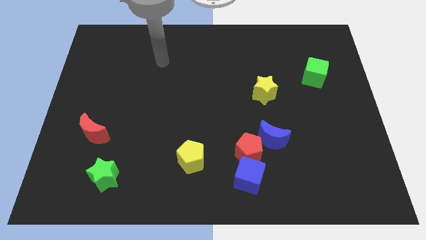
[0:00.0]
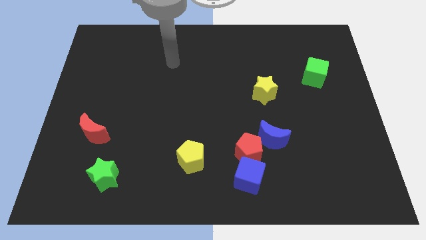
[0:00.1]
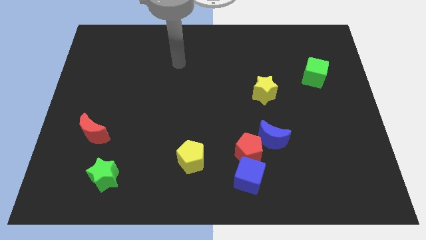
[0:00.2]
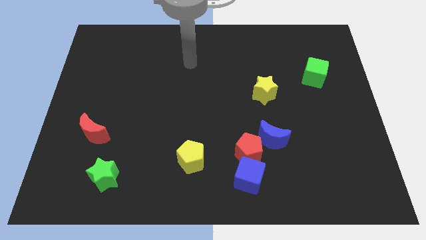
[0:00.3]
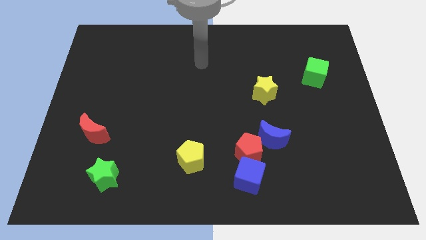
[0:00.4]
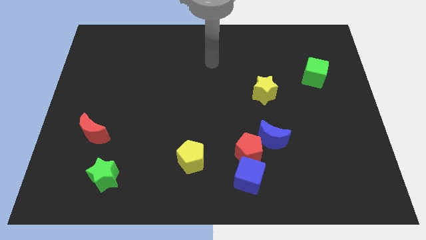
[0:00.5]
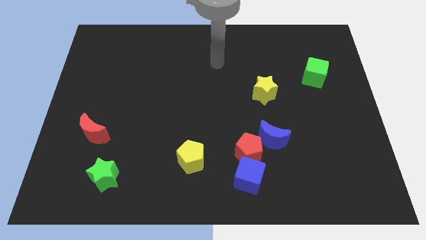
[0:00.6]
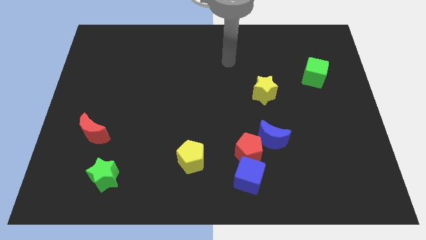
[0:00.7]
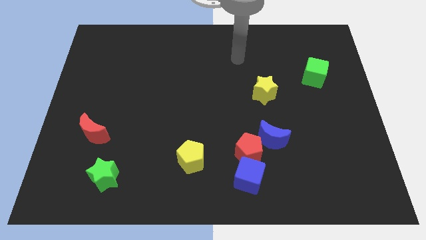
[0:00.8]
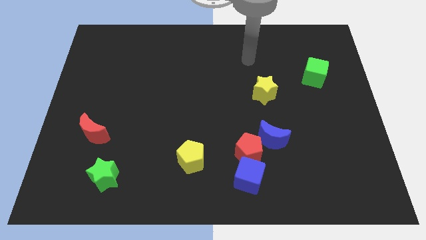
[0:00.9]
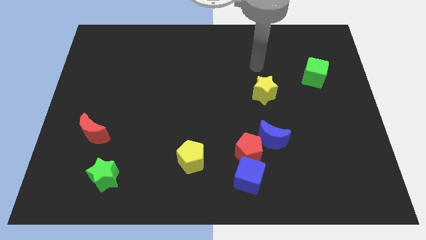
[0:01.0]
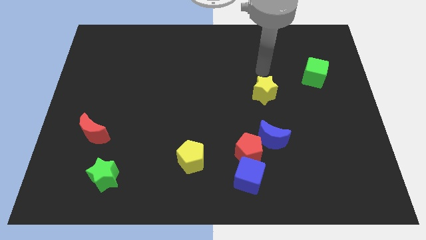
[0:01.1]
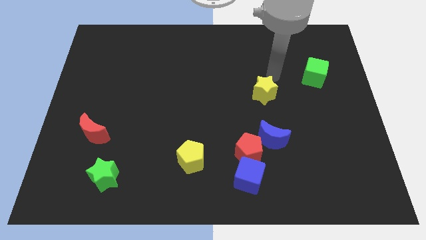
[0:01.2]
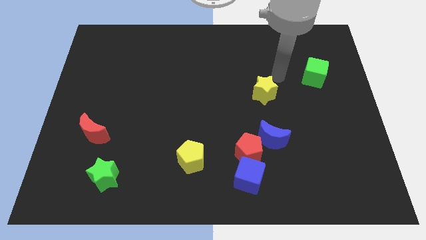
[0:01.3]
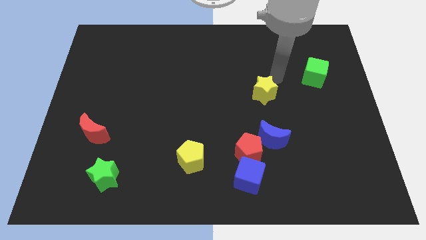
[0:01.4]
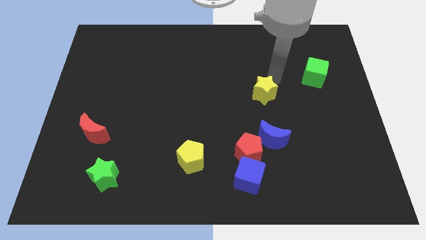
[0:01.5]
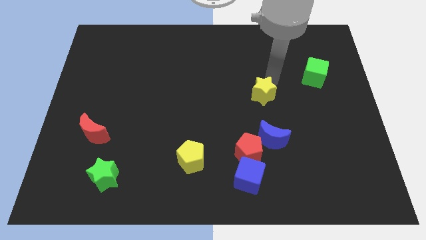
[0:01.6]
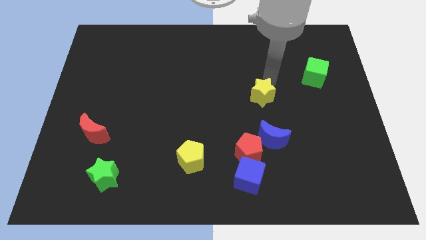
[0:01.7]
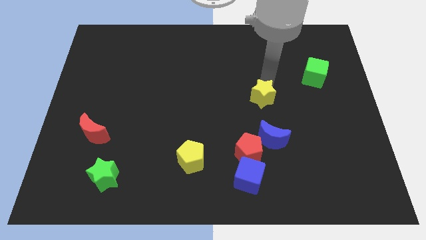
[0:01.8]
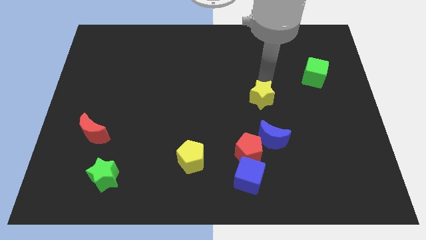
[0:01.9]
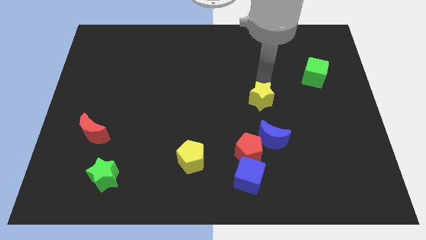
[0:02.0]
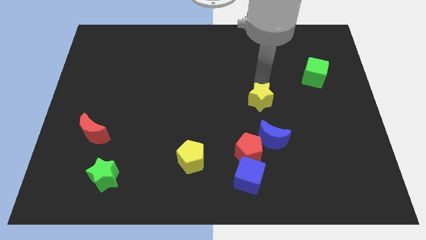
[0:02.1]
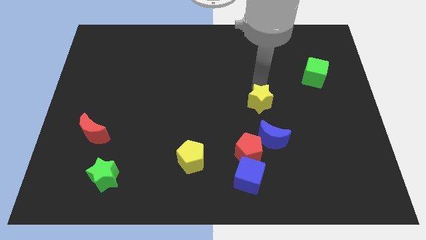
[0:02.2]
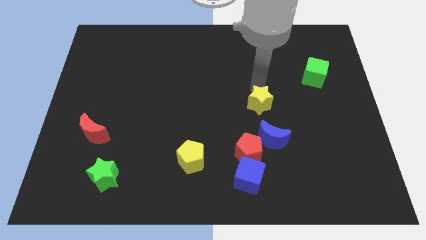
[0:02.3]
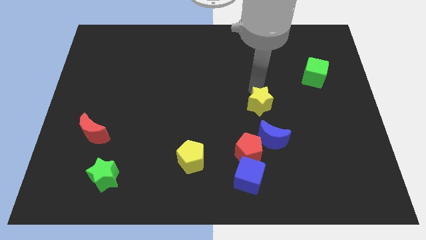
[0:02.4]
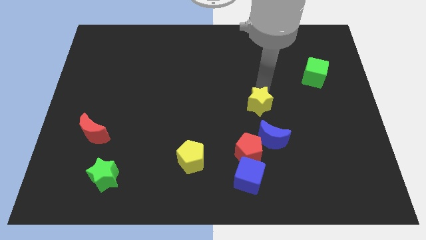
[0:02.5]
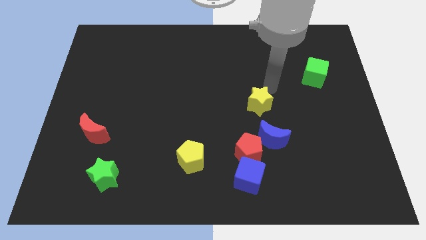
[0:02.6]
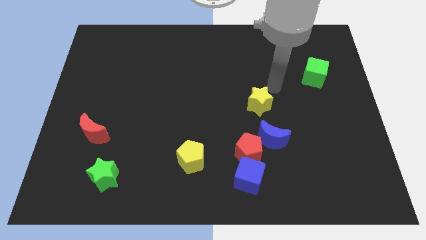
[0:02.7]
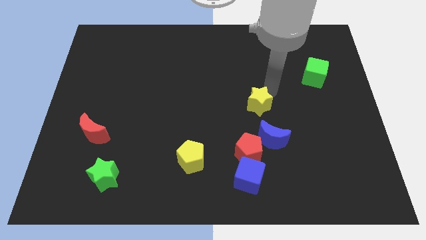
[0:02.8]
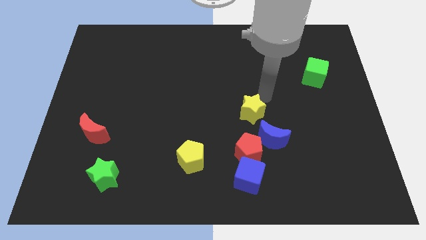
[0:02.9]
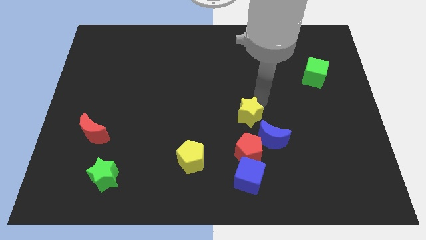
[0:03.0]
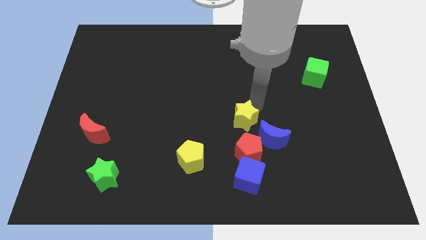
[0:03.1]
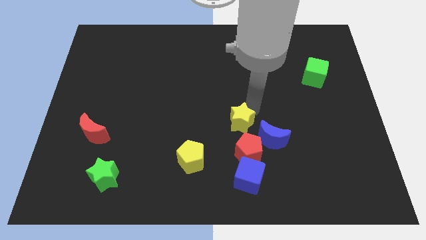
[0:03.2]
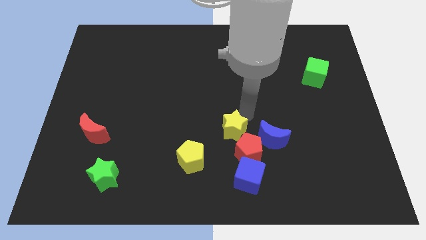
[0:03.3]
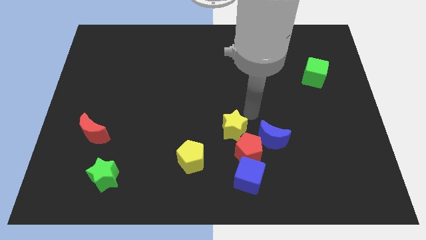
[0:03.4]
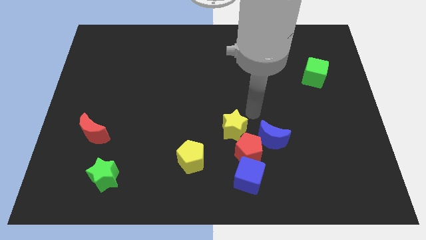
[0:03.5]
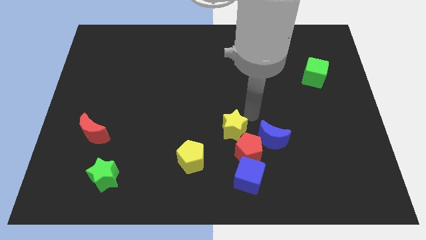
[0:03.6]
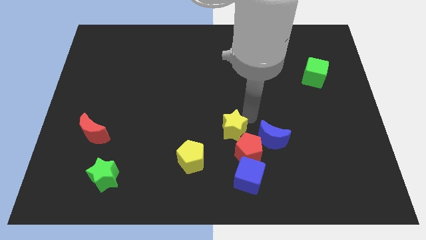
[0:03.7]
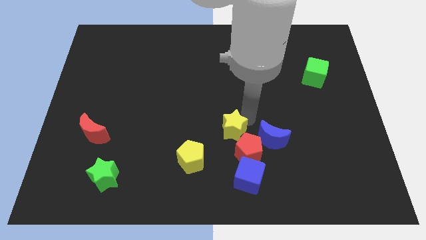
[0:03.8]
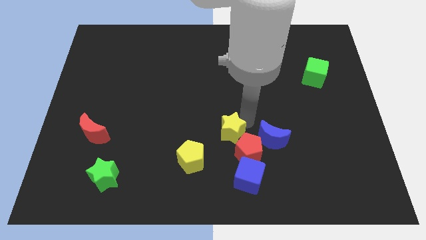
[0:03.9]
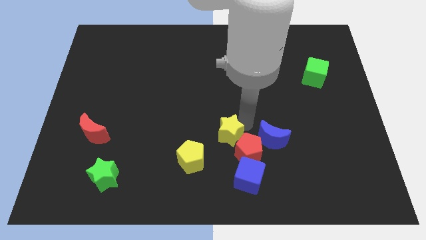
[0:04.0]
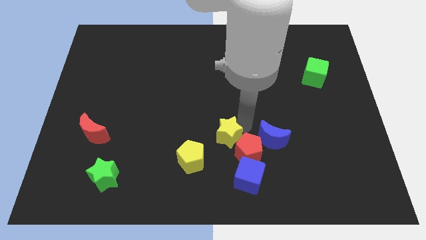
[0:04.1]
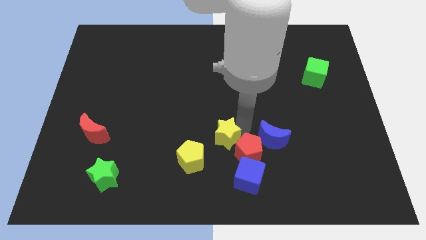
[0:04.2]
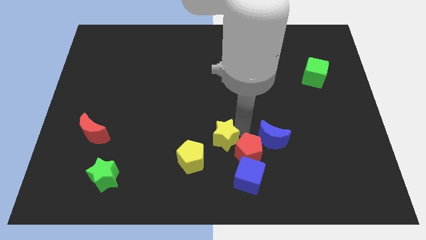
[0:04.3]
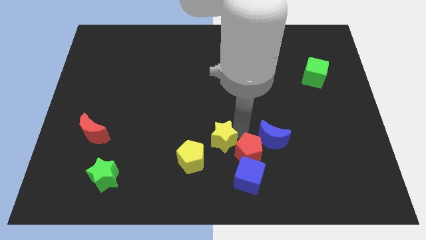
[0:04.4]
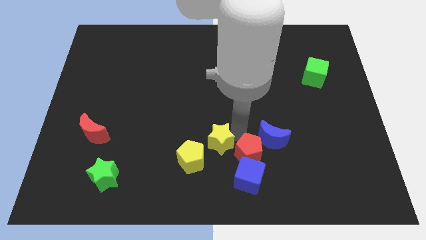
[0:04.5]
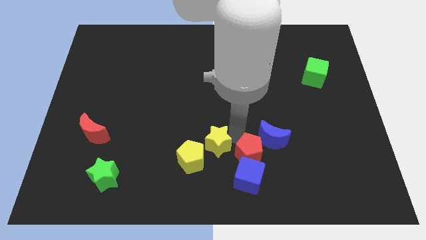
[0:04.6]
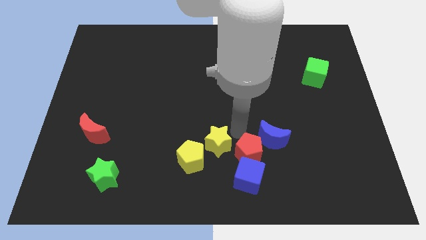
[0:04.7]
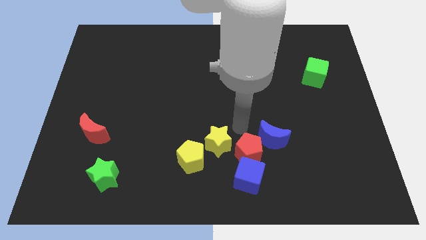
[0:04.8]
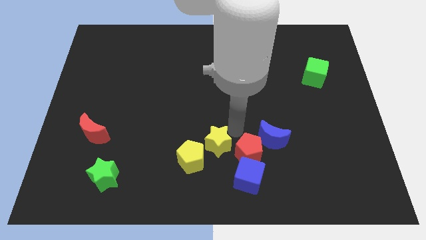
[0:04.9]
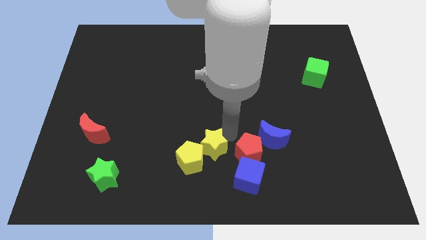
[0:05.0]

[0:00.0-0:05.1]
slide the yellow star to the yellow pentagon

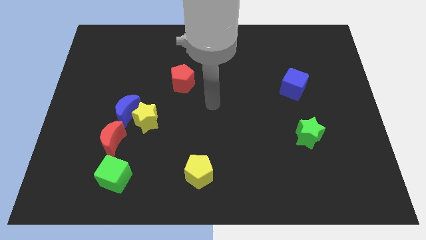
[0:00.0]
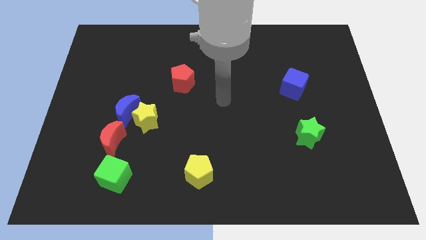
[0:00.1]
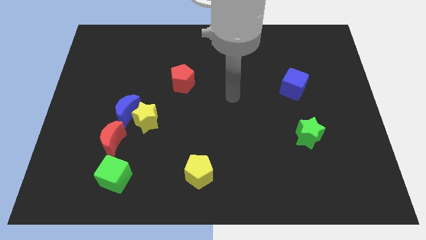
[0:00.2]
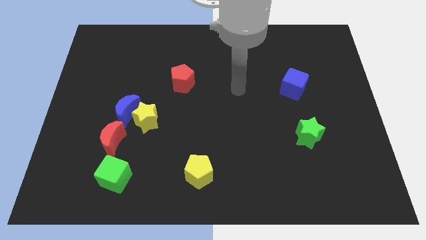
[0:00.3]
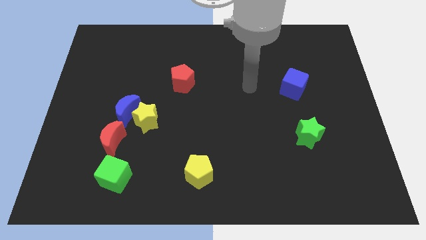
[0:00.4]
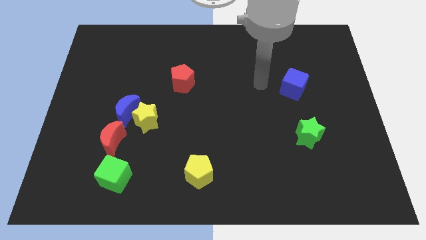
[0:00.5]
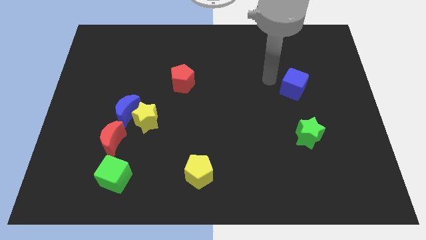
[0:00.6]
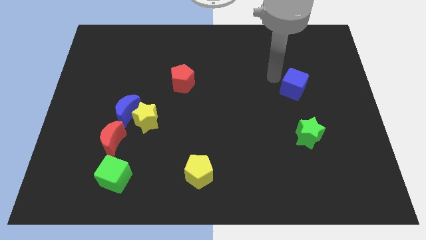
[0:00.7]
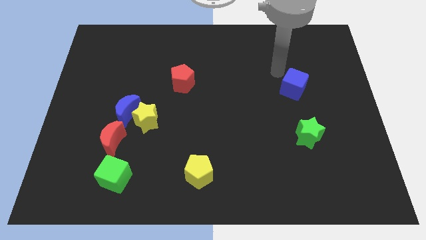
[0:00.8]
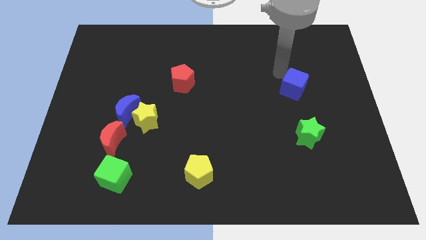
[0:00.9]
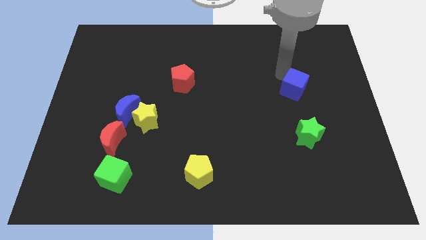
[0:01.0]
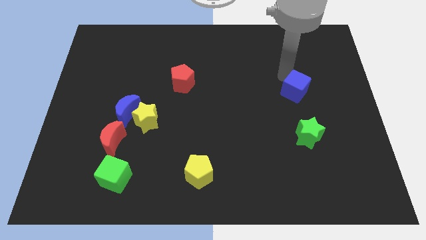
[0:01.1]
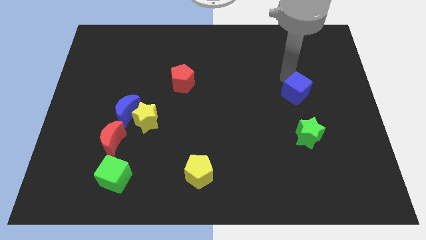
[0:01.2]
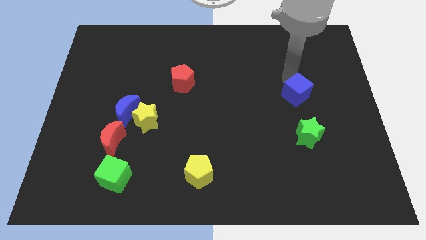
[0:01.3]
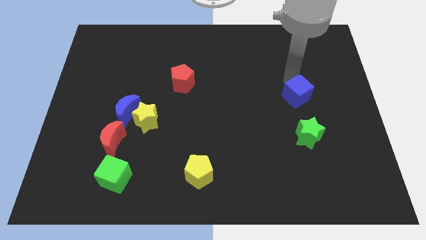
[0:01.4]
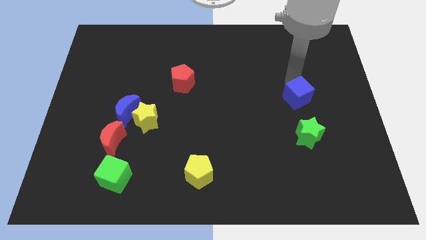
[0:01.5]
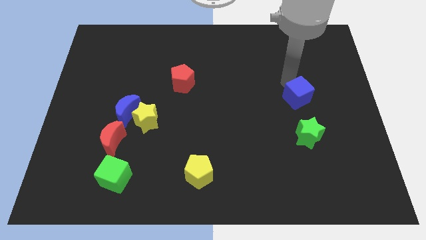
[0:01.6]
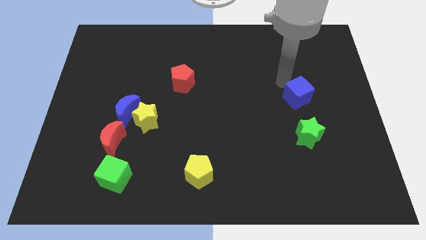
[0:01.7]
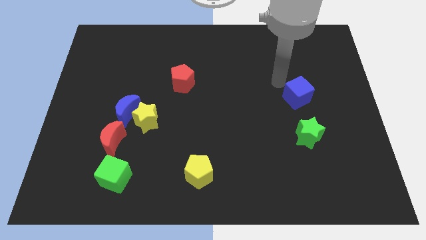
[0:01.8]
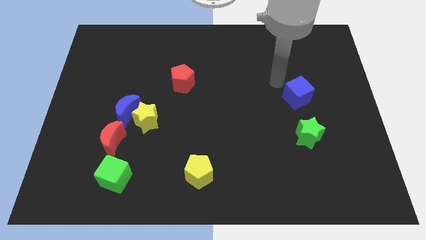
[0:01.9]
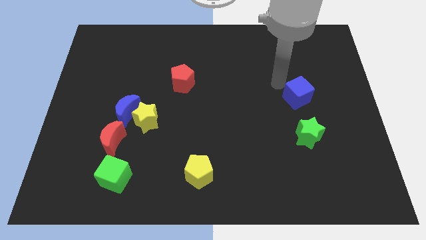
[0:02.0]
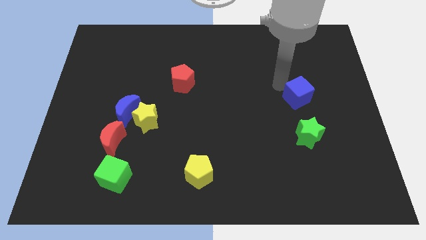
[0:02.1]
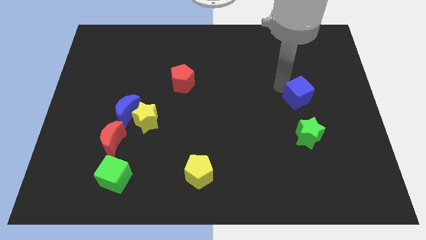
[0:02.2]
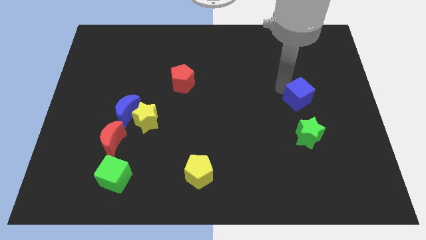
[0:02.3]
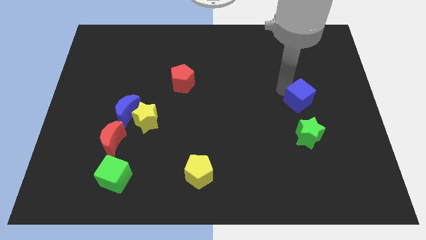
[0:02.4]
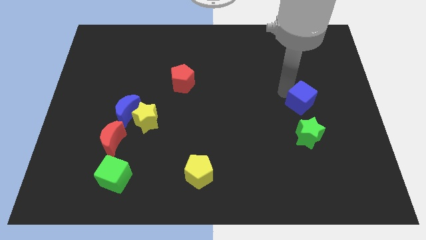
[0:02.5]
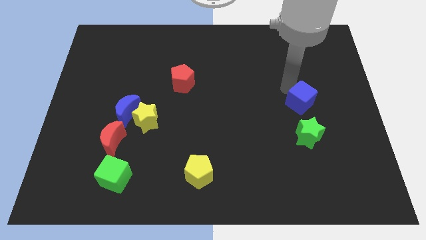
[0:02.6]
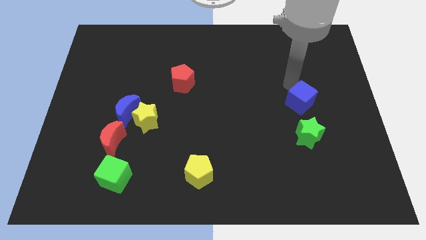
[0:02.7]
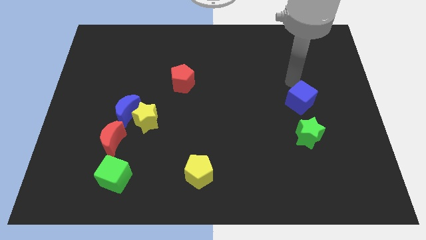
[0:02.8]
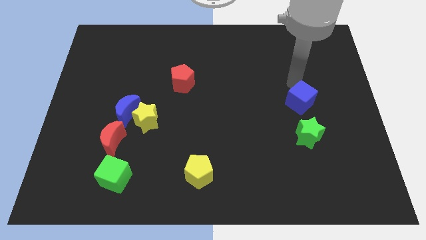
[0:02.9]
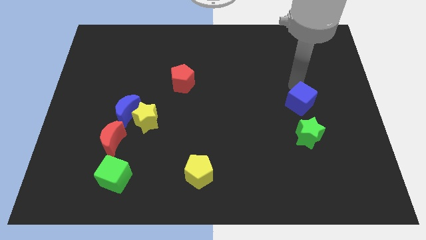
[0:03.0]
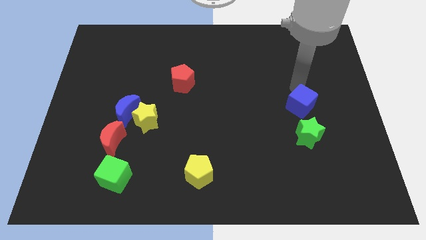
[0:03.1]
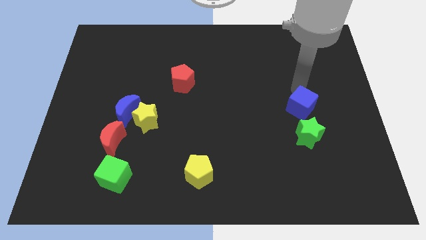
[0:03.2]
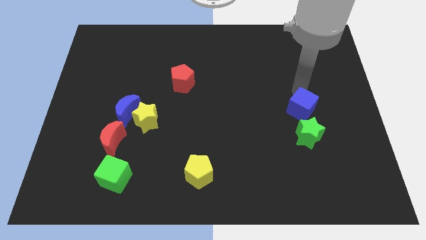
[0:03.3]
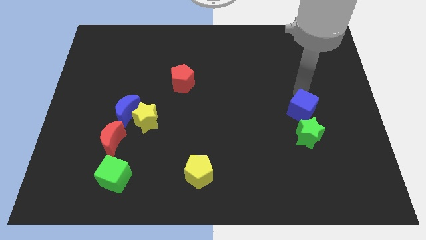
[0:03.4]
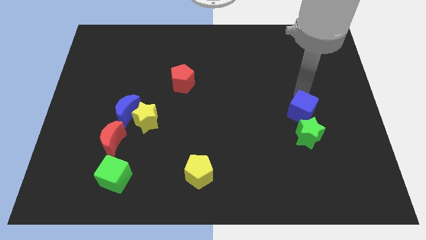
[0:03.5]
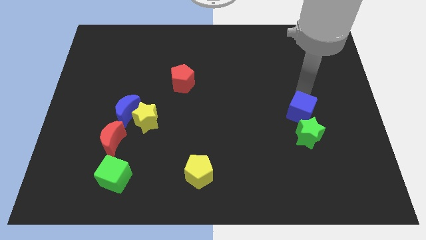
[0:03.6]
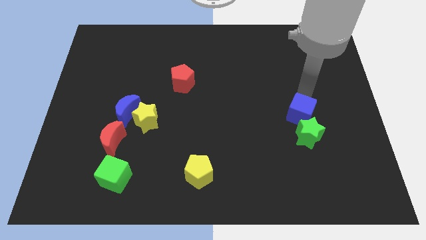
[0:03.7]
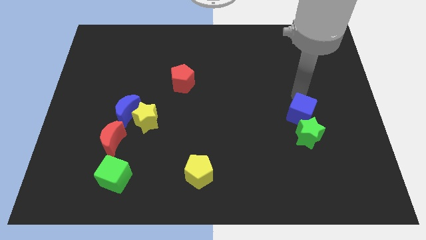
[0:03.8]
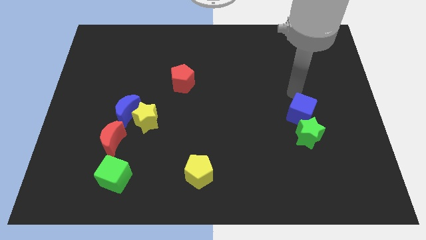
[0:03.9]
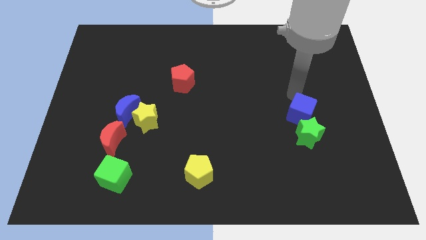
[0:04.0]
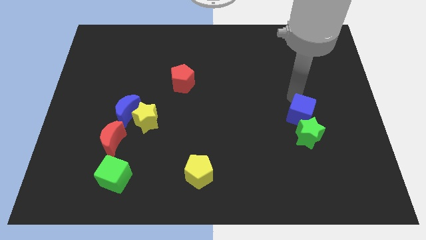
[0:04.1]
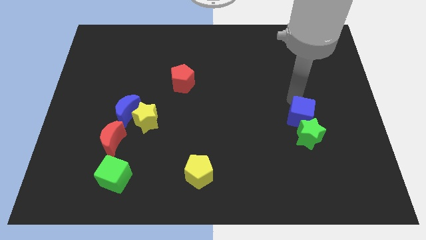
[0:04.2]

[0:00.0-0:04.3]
push the blue cube to the green star
